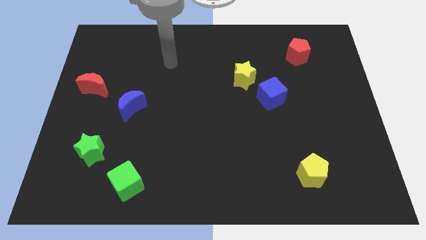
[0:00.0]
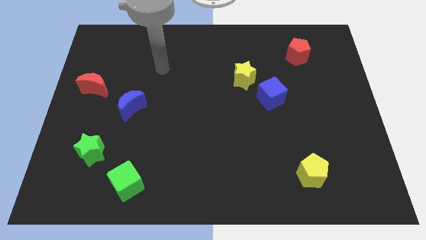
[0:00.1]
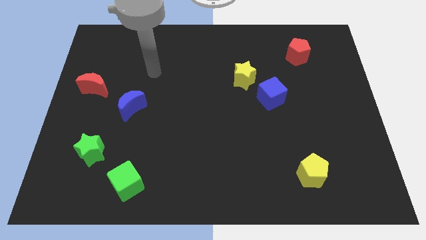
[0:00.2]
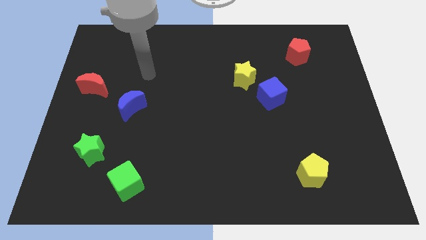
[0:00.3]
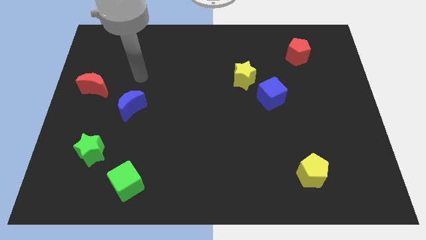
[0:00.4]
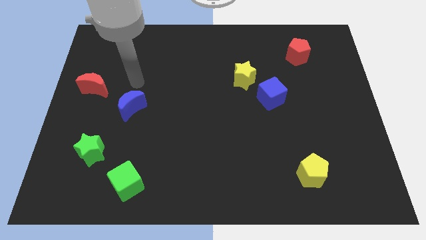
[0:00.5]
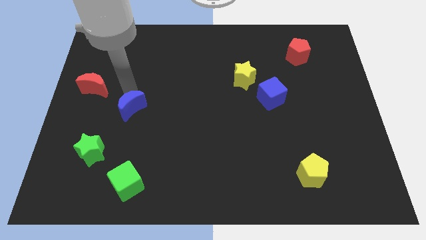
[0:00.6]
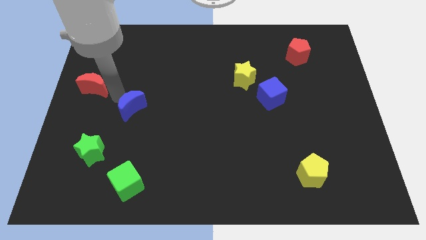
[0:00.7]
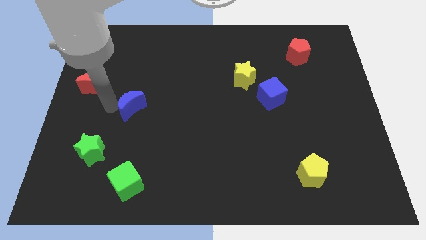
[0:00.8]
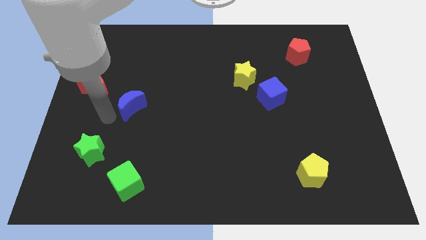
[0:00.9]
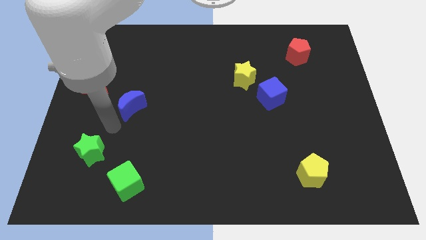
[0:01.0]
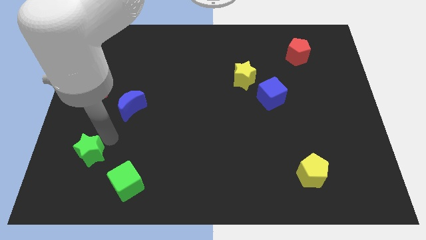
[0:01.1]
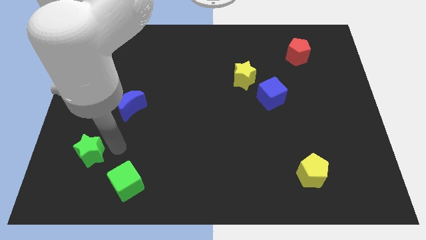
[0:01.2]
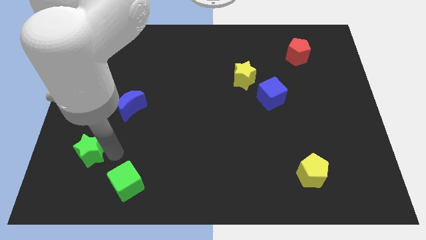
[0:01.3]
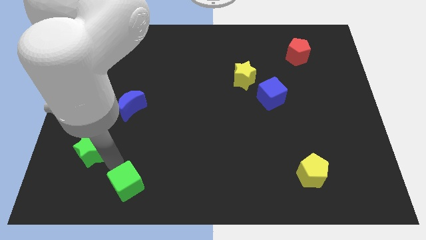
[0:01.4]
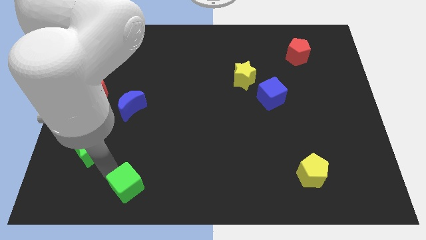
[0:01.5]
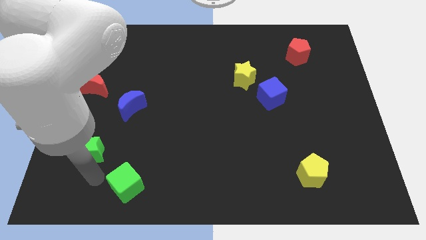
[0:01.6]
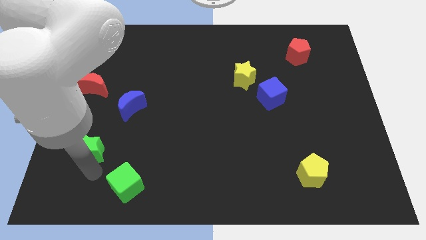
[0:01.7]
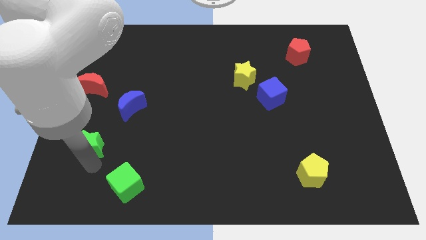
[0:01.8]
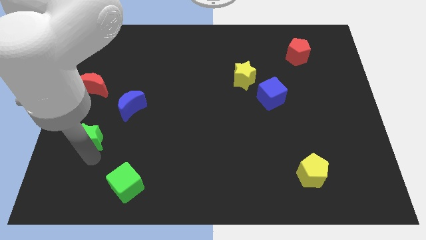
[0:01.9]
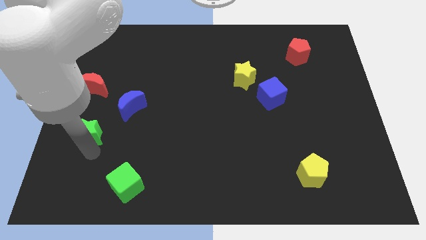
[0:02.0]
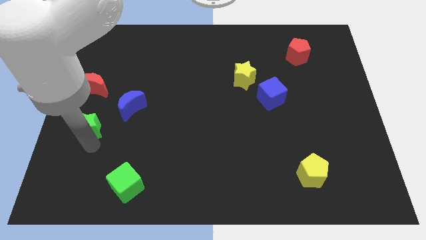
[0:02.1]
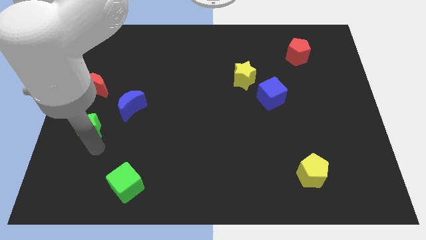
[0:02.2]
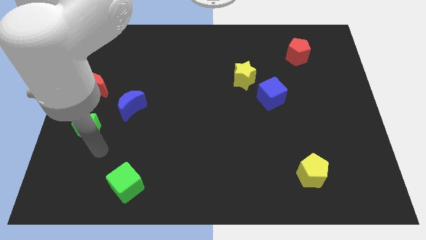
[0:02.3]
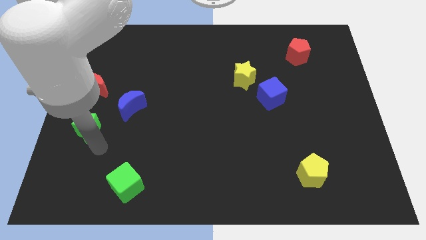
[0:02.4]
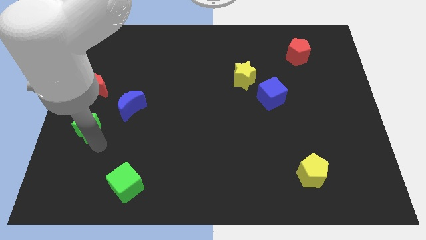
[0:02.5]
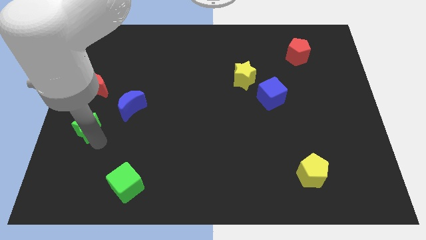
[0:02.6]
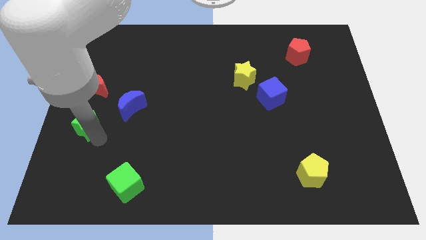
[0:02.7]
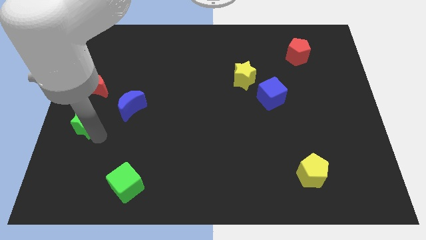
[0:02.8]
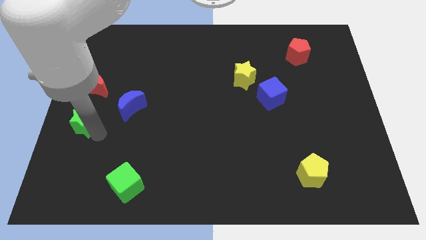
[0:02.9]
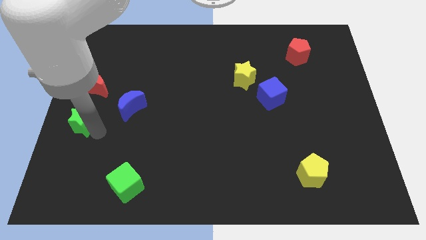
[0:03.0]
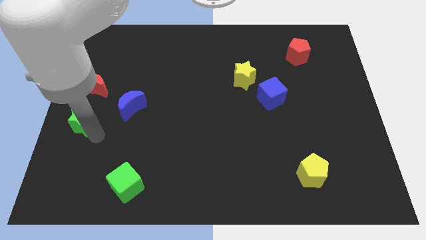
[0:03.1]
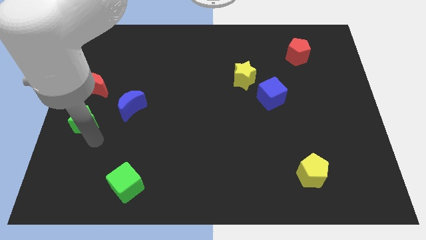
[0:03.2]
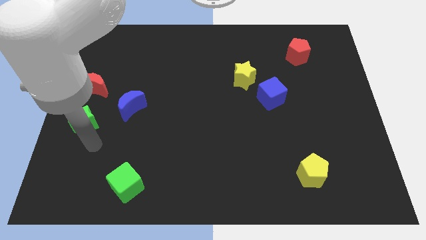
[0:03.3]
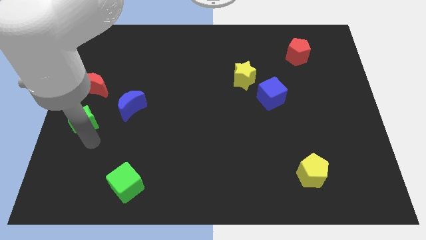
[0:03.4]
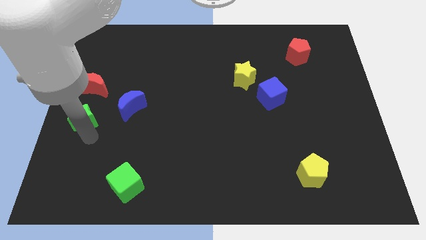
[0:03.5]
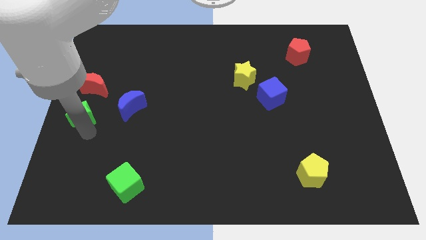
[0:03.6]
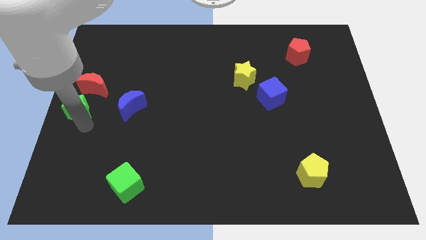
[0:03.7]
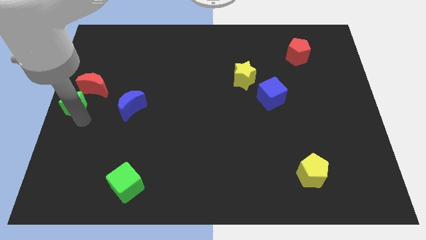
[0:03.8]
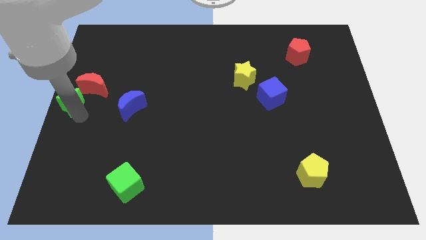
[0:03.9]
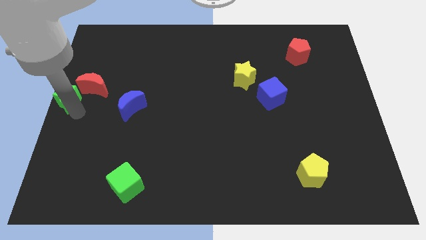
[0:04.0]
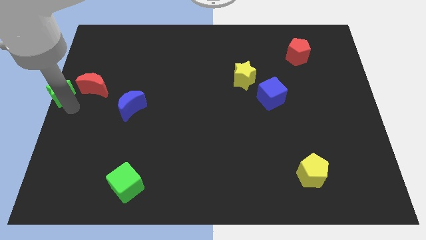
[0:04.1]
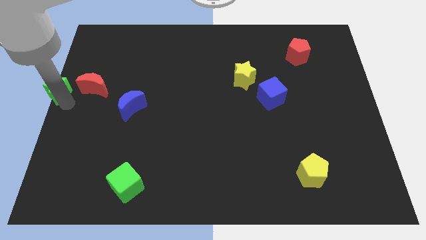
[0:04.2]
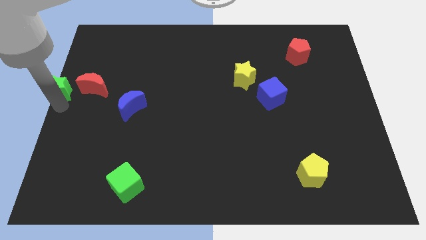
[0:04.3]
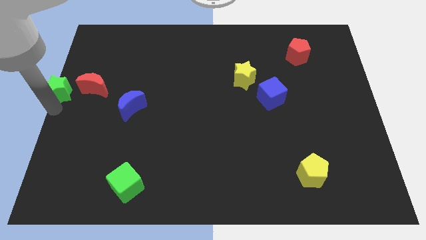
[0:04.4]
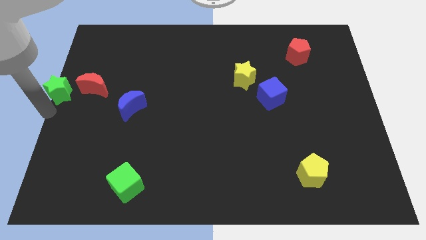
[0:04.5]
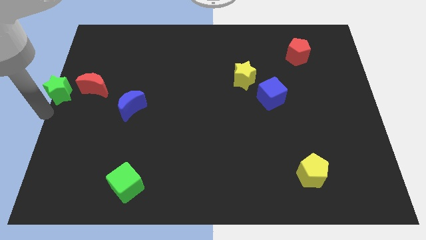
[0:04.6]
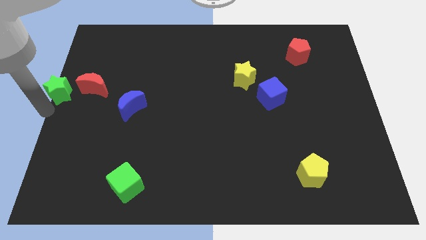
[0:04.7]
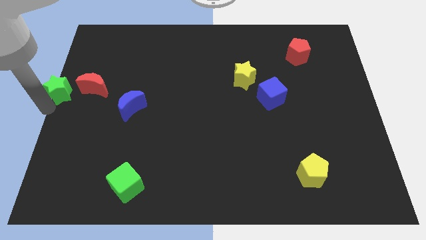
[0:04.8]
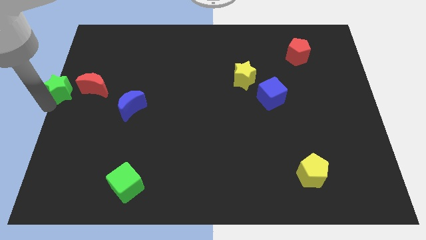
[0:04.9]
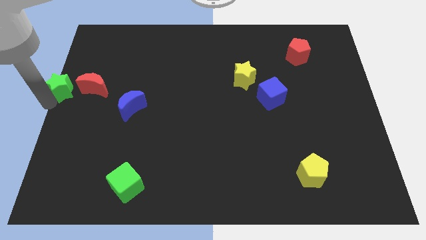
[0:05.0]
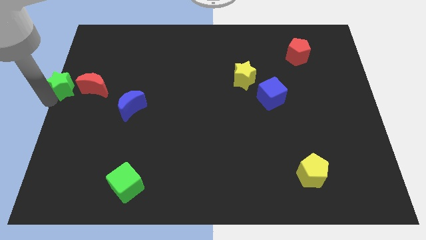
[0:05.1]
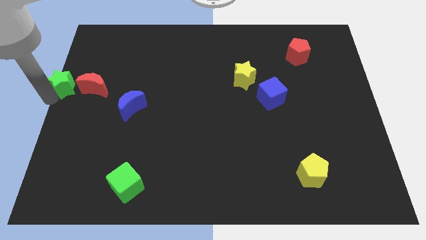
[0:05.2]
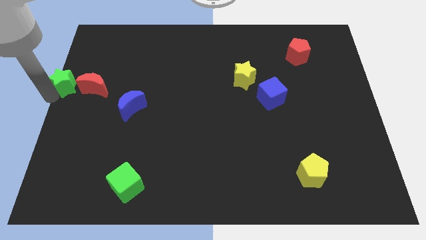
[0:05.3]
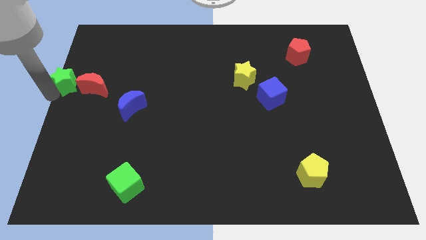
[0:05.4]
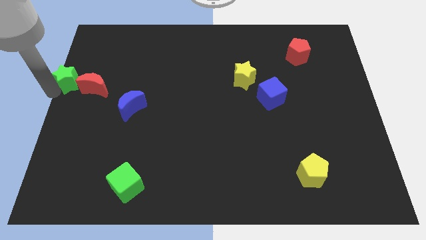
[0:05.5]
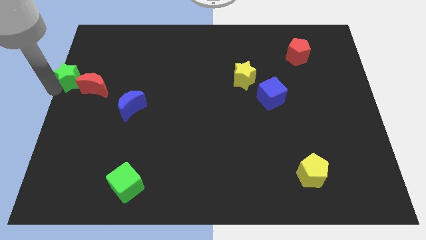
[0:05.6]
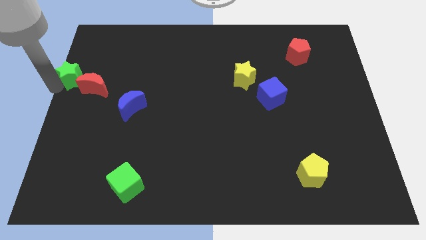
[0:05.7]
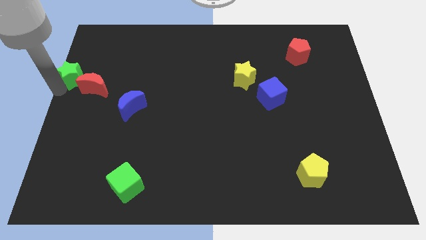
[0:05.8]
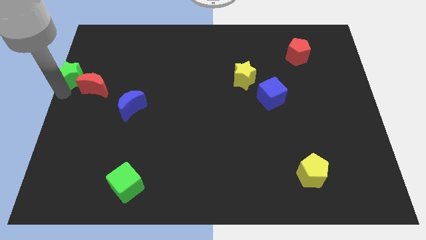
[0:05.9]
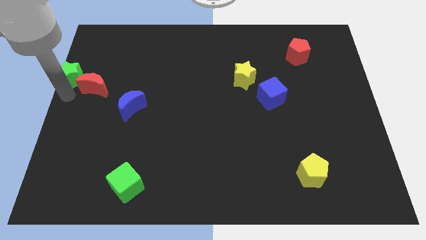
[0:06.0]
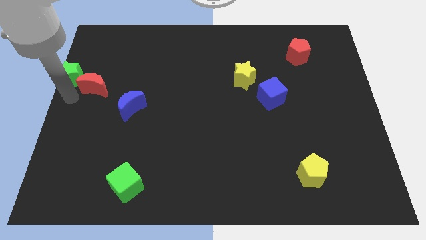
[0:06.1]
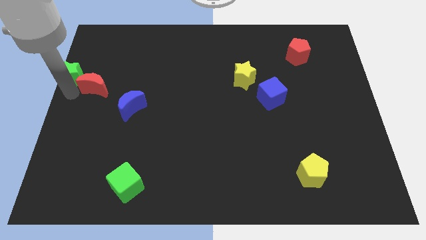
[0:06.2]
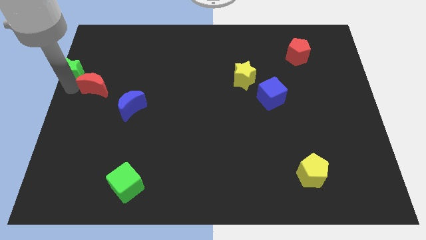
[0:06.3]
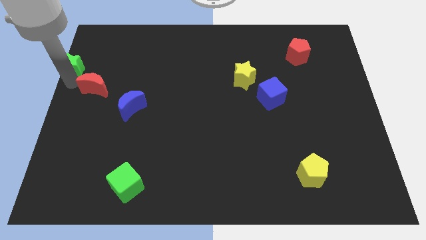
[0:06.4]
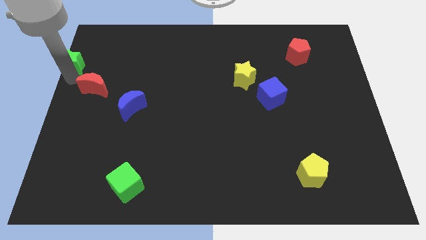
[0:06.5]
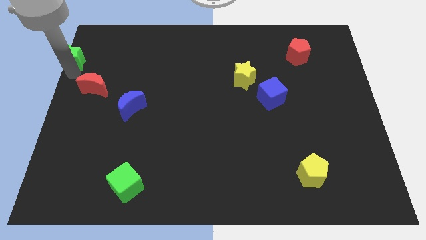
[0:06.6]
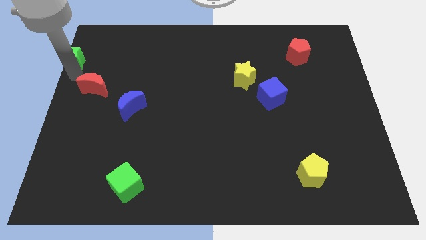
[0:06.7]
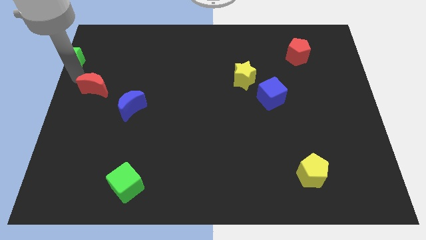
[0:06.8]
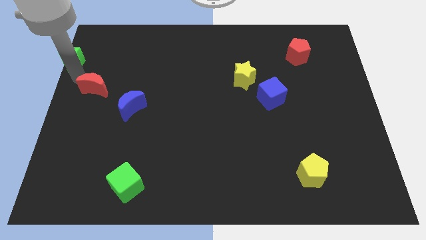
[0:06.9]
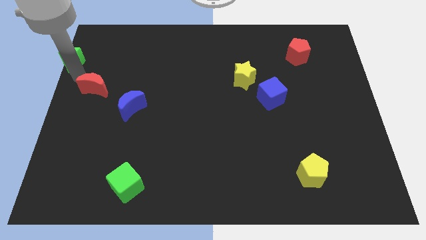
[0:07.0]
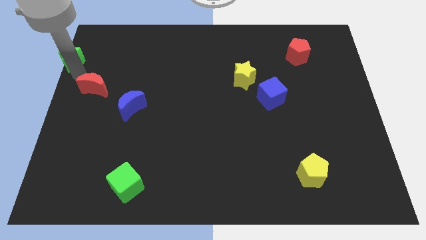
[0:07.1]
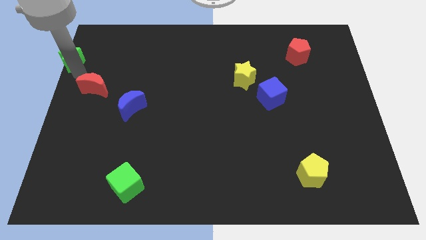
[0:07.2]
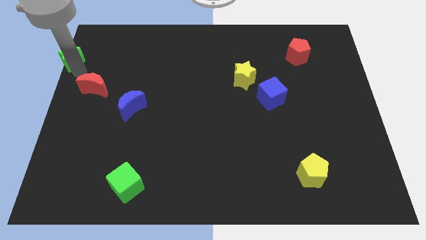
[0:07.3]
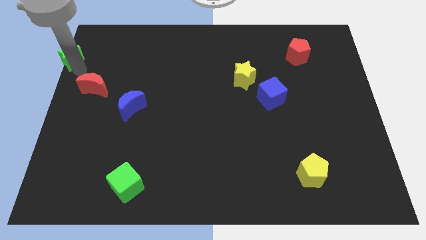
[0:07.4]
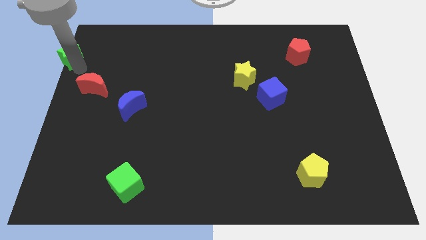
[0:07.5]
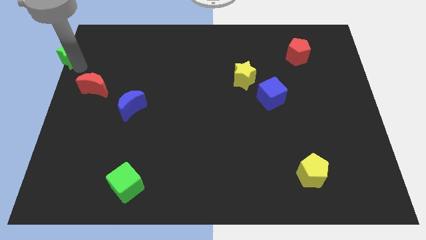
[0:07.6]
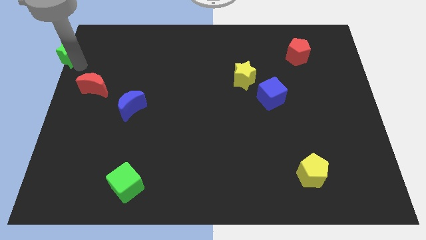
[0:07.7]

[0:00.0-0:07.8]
put the green star to the top left
